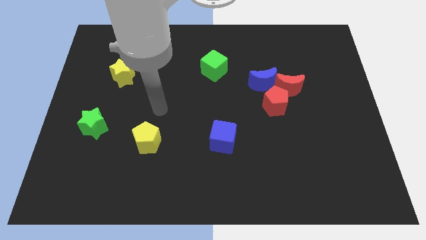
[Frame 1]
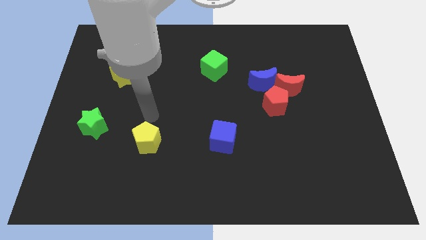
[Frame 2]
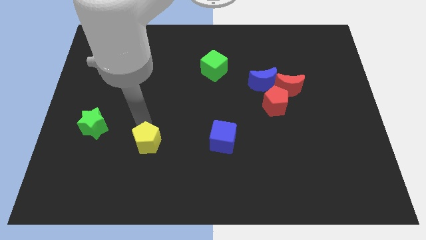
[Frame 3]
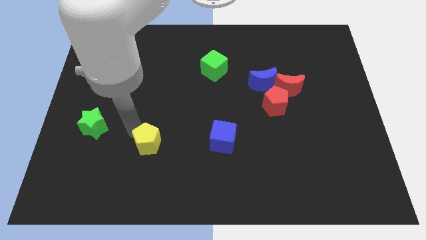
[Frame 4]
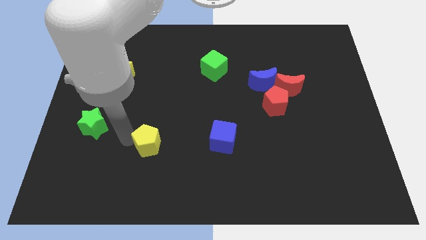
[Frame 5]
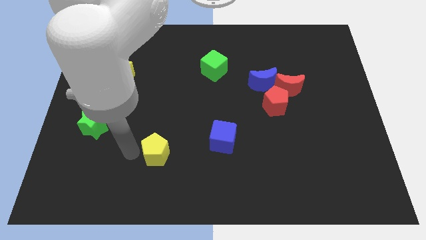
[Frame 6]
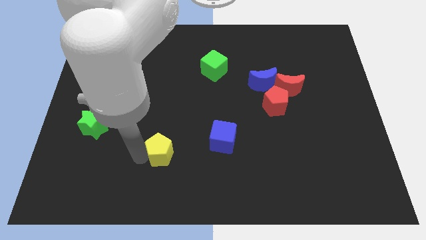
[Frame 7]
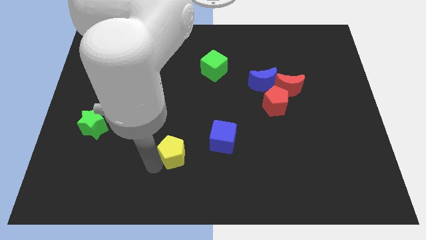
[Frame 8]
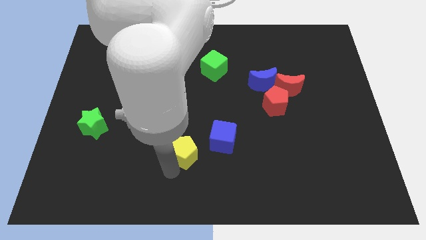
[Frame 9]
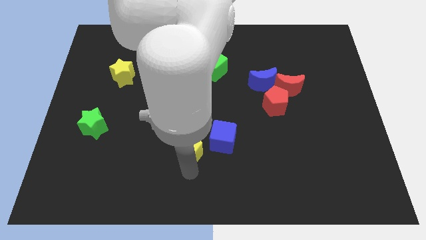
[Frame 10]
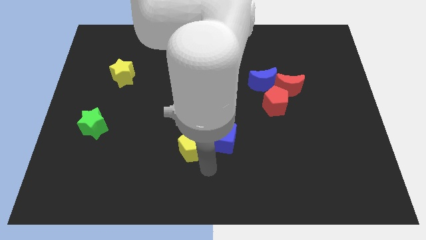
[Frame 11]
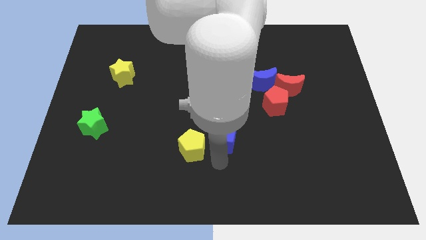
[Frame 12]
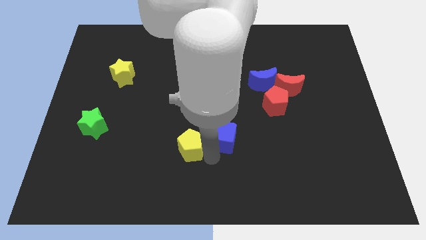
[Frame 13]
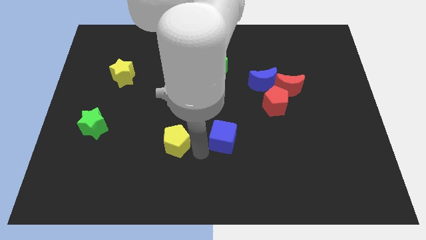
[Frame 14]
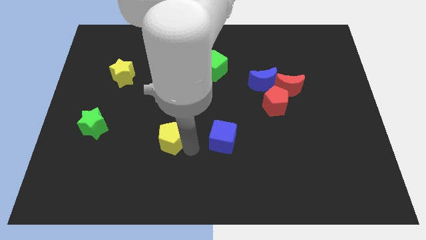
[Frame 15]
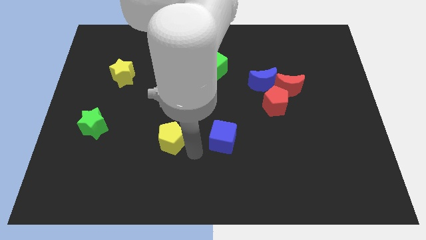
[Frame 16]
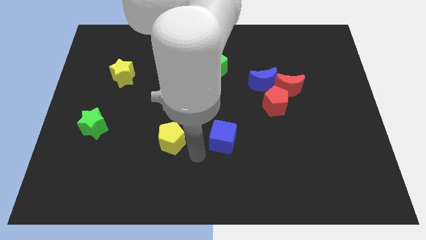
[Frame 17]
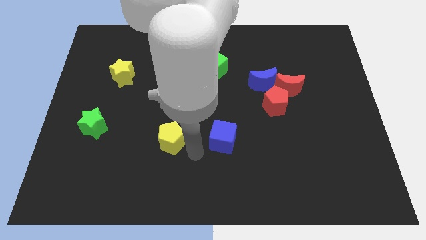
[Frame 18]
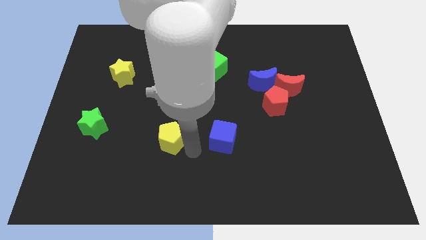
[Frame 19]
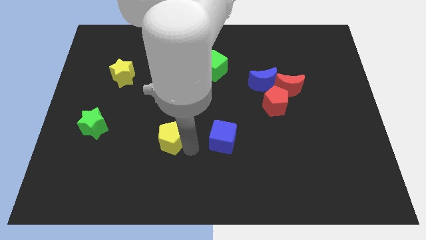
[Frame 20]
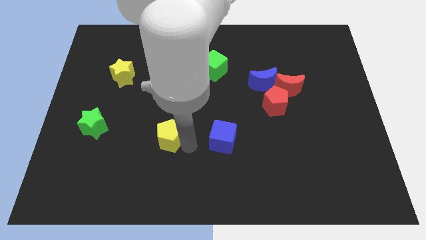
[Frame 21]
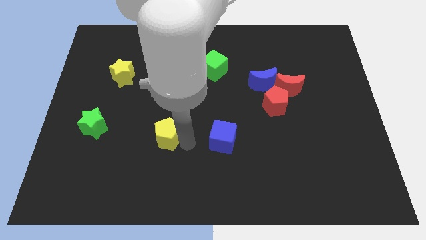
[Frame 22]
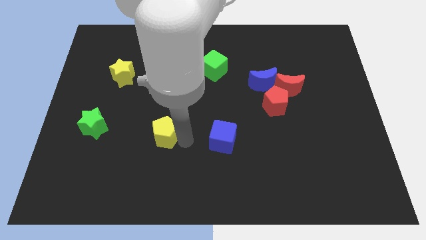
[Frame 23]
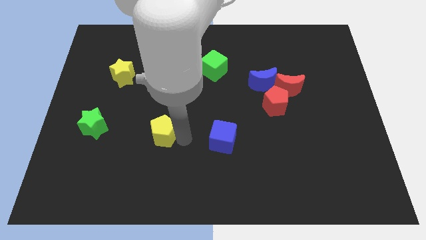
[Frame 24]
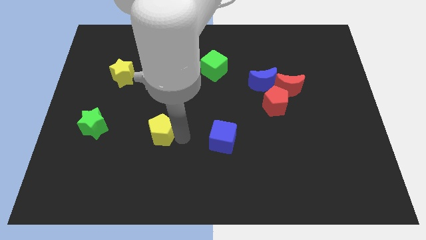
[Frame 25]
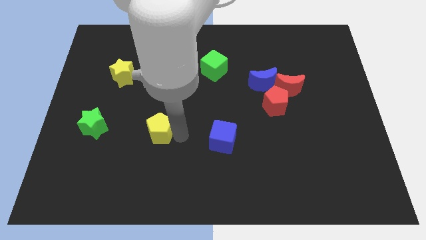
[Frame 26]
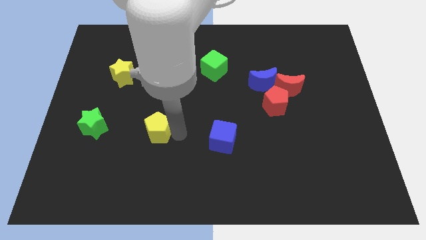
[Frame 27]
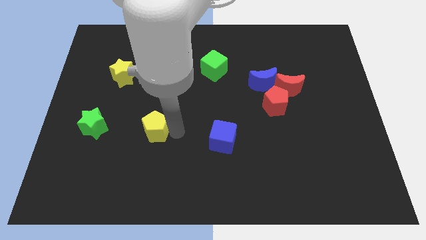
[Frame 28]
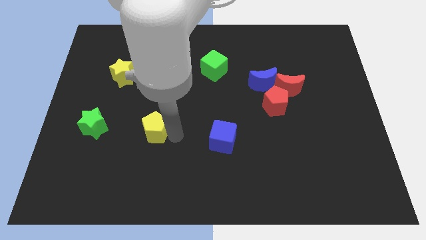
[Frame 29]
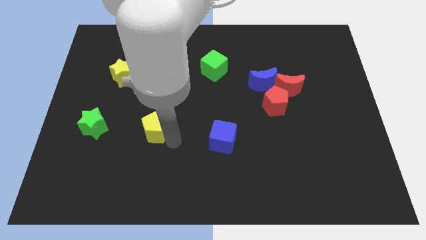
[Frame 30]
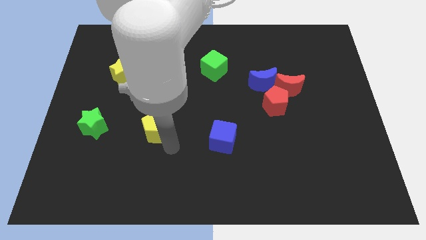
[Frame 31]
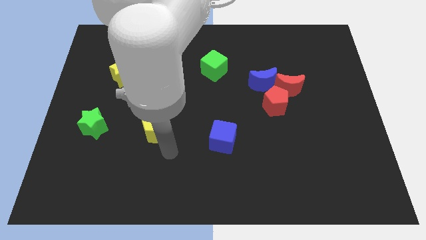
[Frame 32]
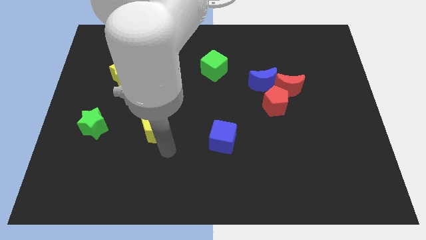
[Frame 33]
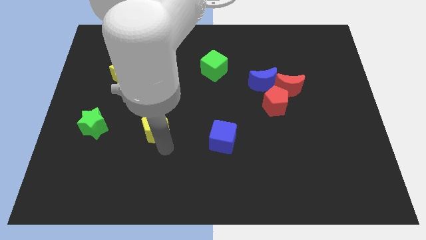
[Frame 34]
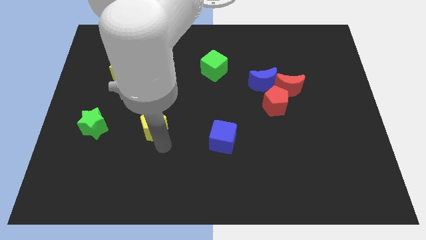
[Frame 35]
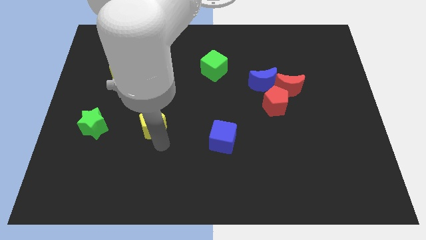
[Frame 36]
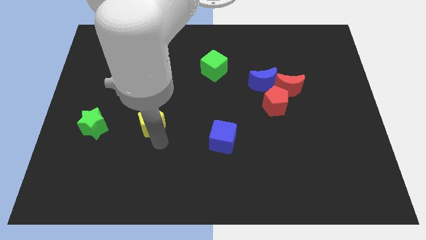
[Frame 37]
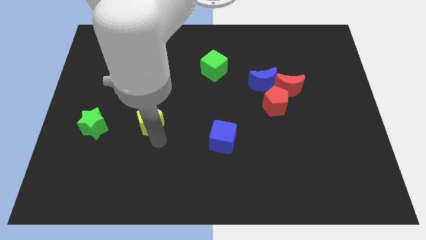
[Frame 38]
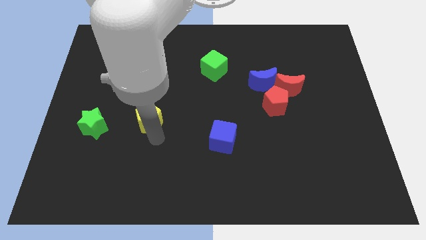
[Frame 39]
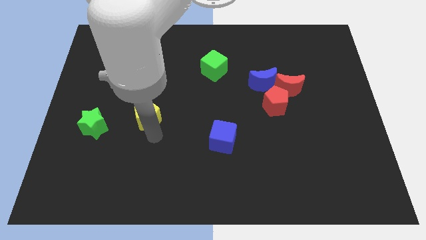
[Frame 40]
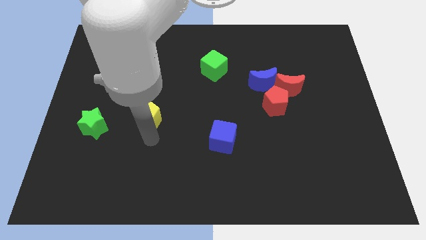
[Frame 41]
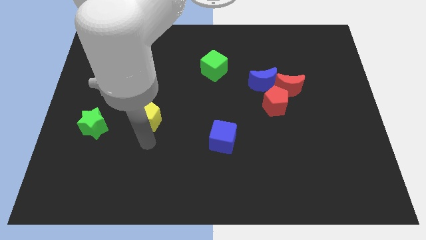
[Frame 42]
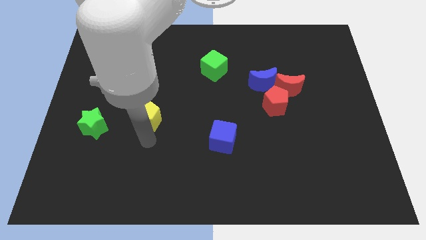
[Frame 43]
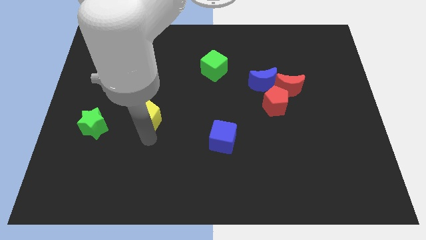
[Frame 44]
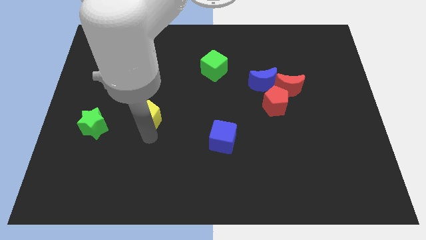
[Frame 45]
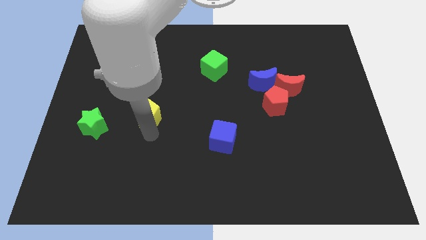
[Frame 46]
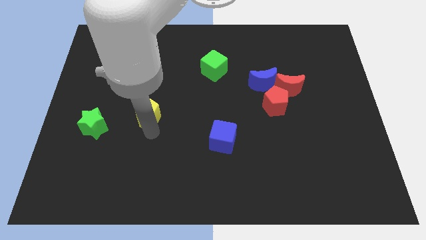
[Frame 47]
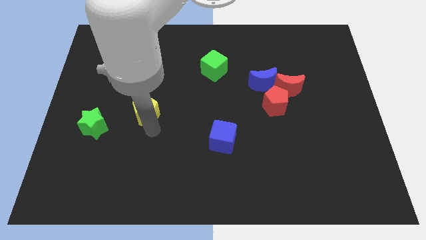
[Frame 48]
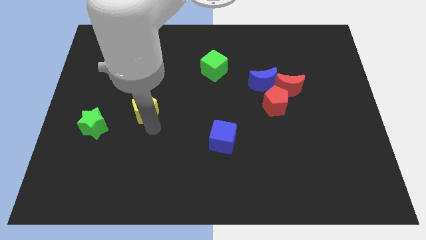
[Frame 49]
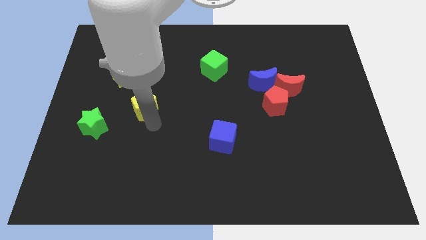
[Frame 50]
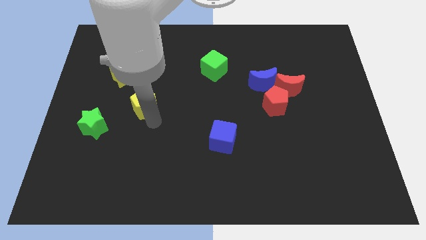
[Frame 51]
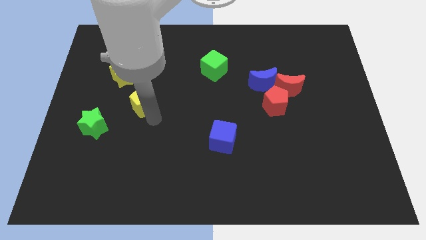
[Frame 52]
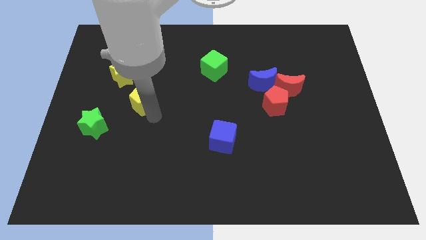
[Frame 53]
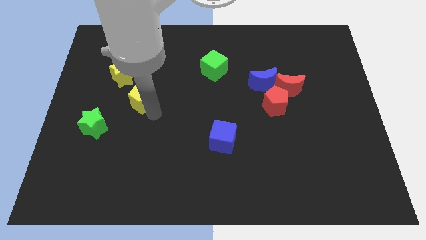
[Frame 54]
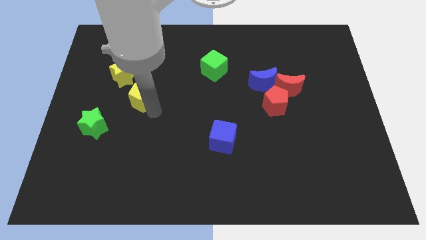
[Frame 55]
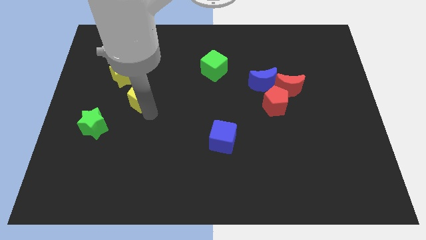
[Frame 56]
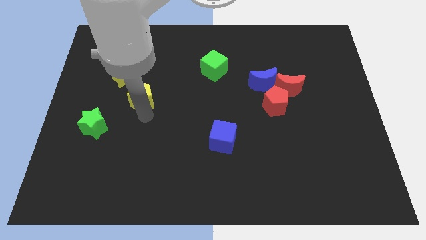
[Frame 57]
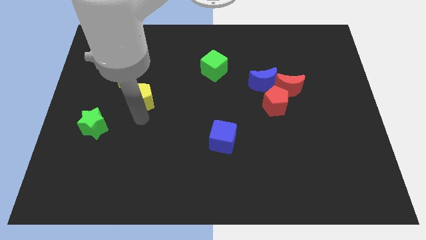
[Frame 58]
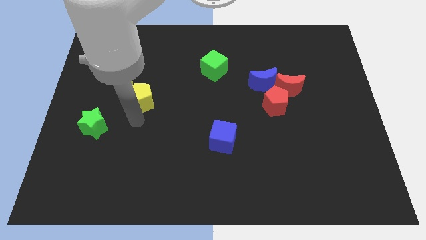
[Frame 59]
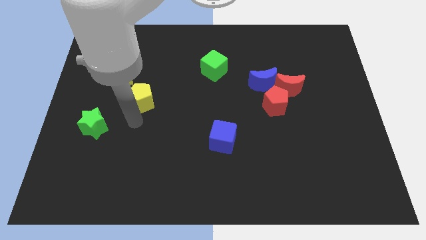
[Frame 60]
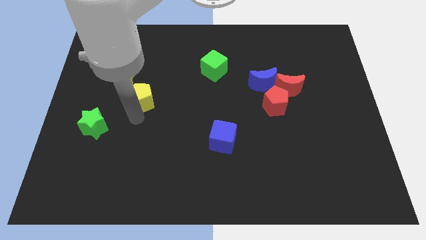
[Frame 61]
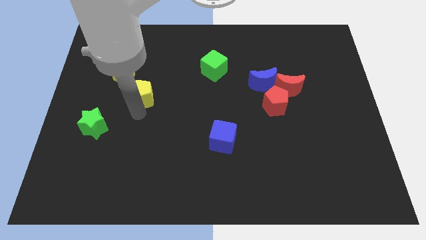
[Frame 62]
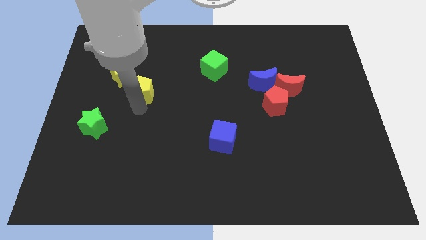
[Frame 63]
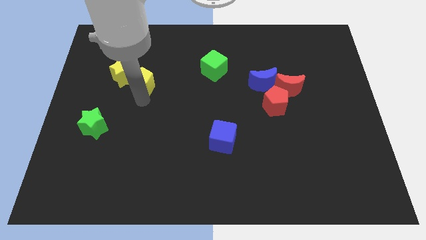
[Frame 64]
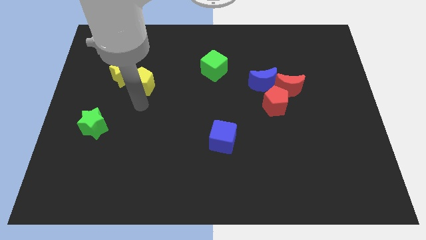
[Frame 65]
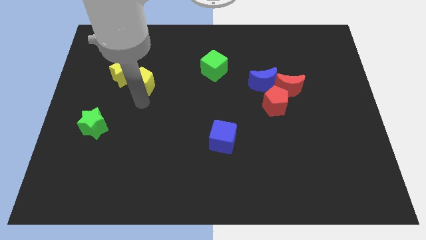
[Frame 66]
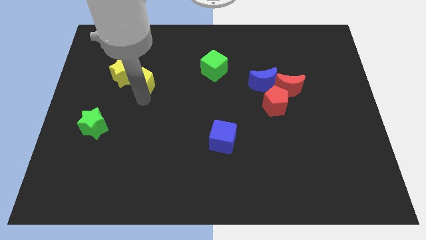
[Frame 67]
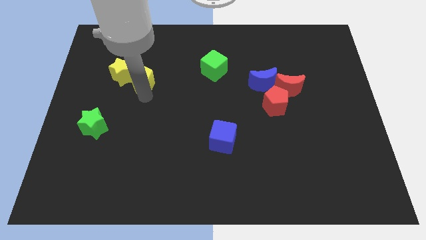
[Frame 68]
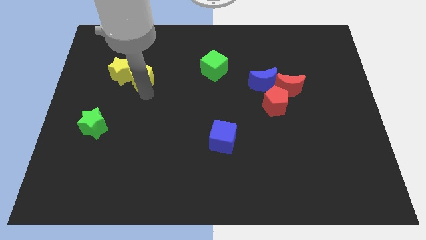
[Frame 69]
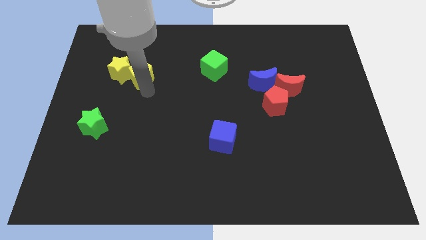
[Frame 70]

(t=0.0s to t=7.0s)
push the yellow pentagon diagonally up and to the right of the yellow star
